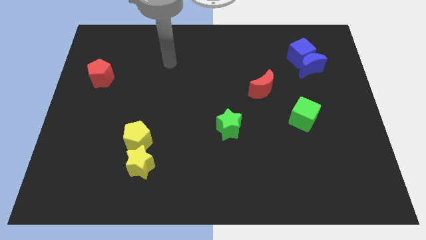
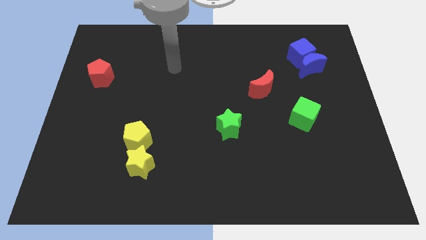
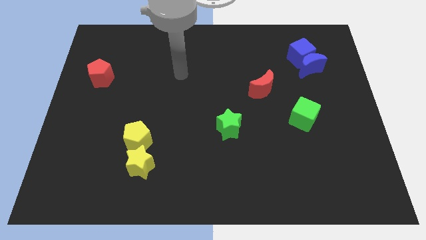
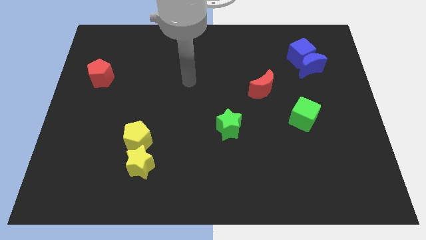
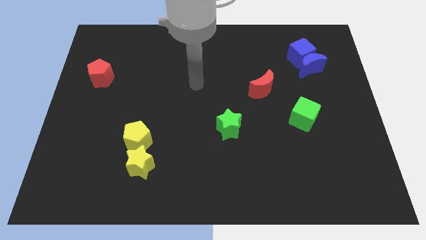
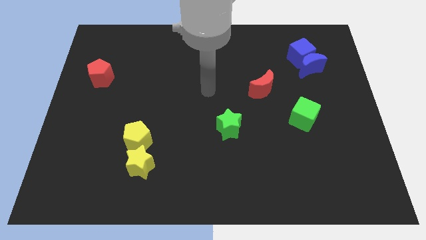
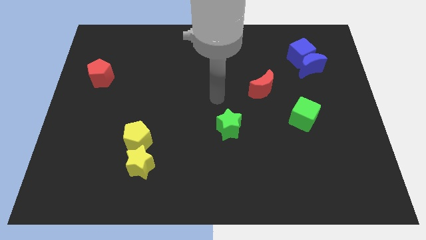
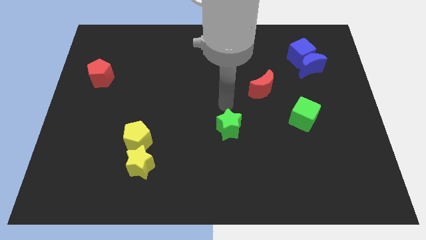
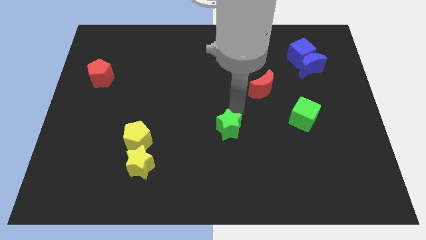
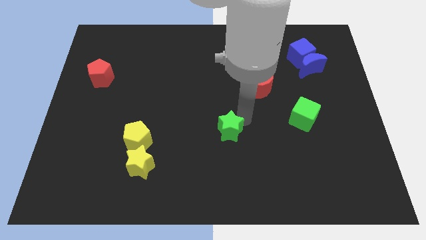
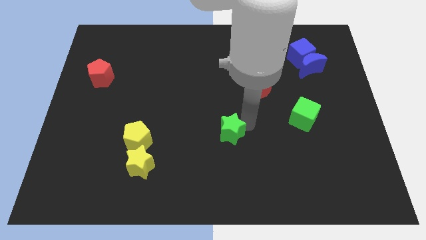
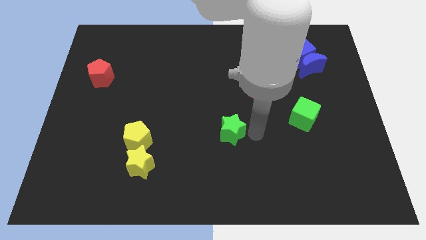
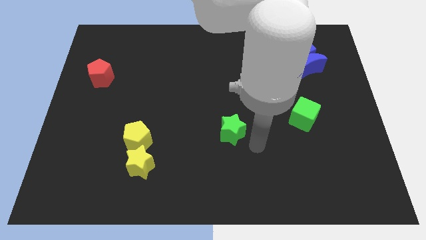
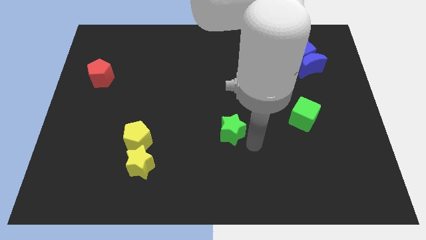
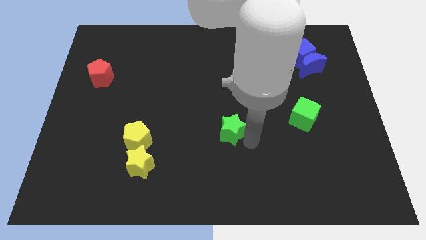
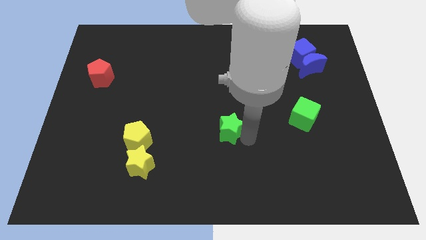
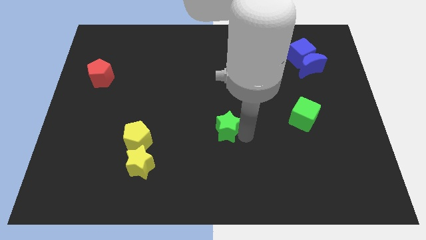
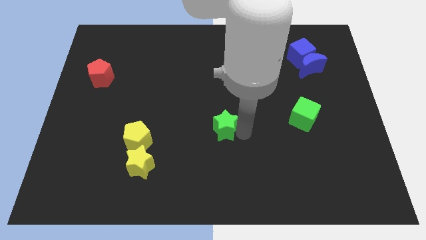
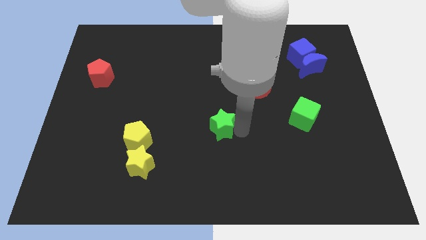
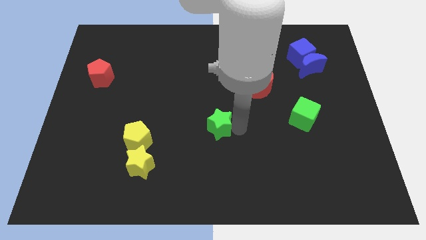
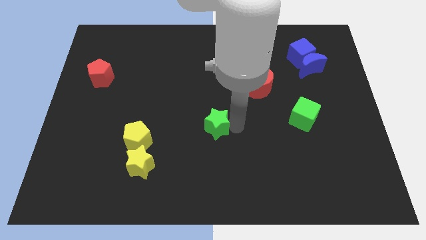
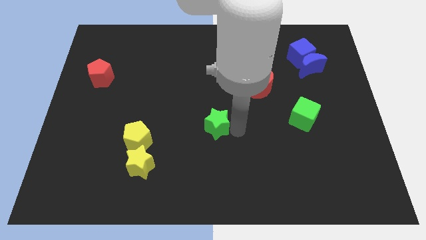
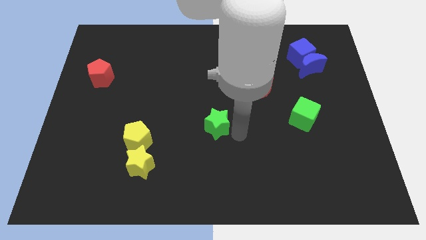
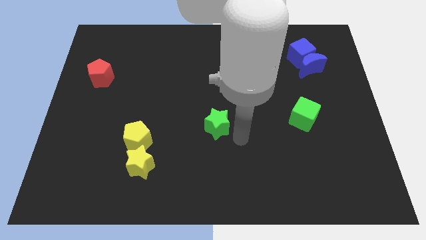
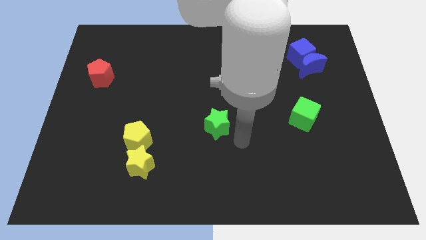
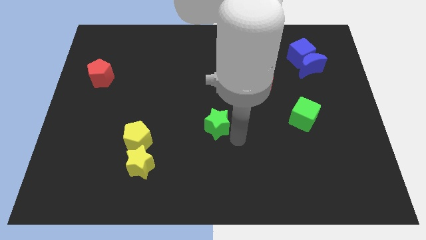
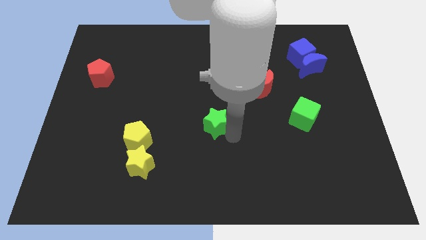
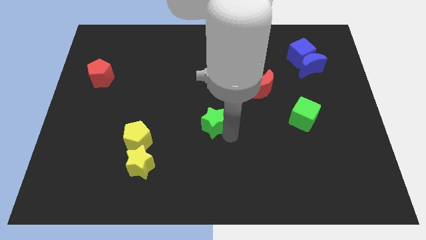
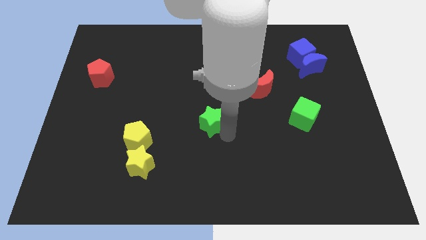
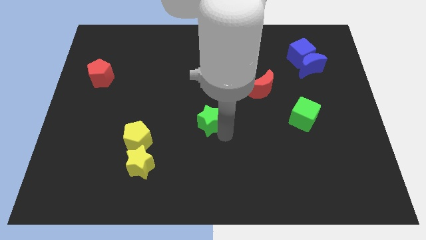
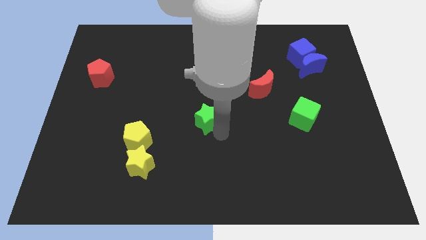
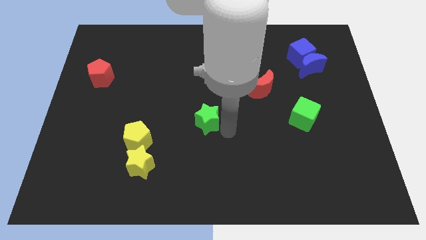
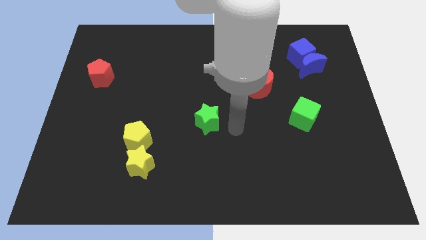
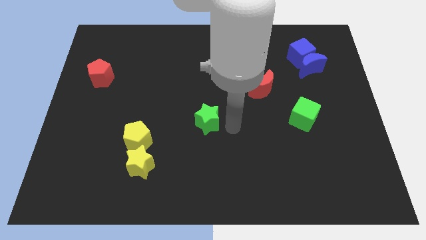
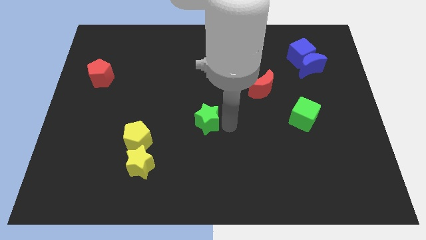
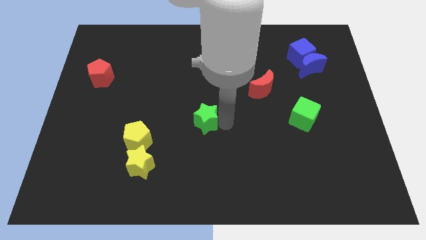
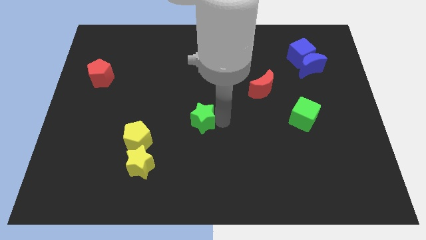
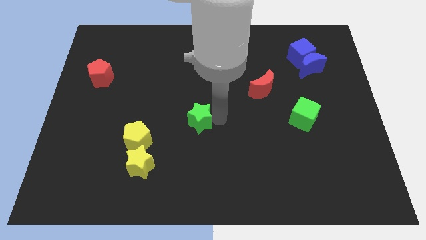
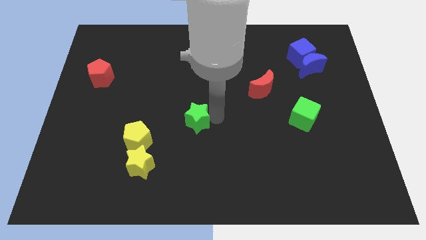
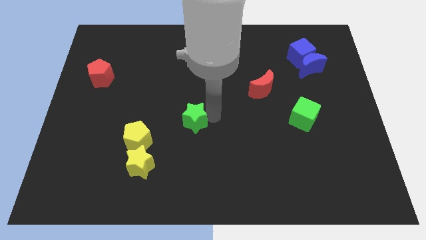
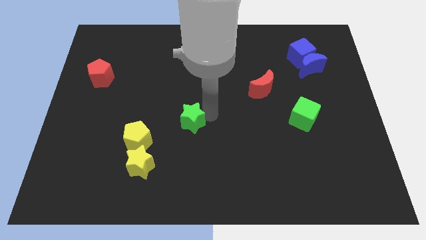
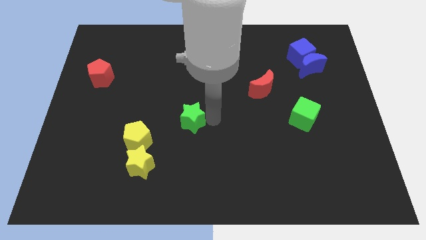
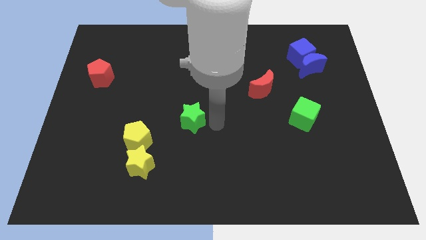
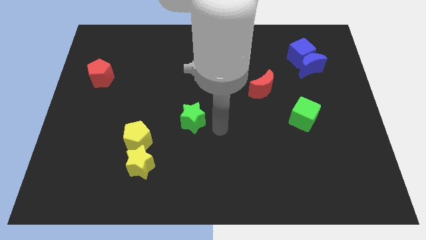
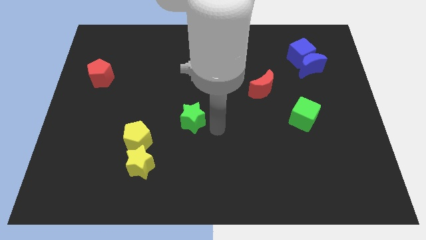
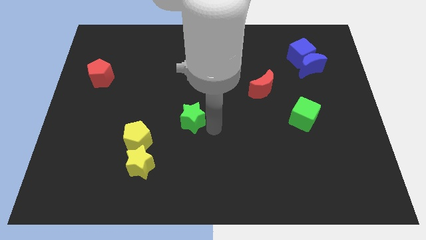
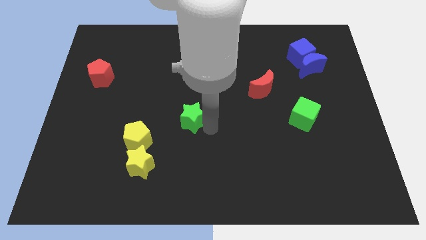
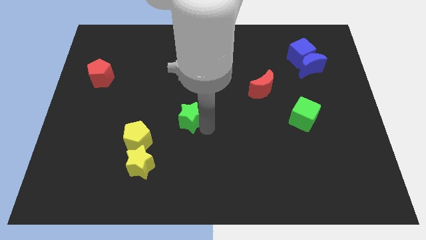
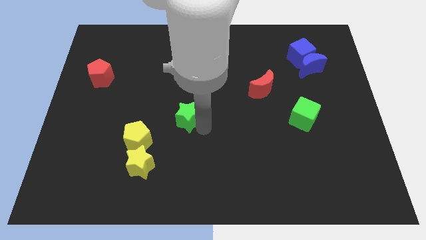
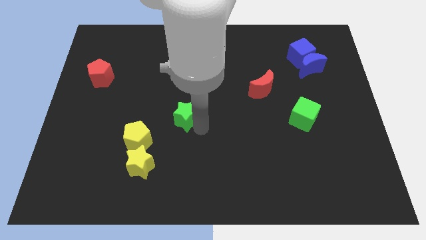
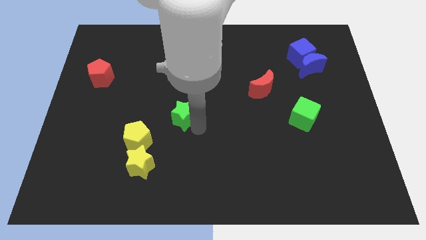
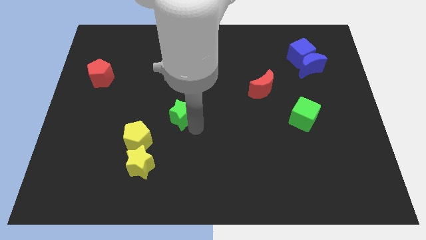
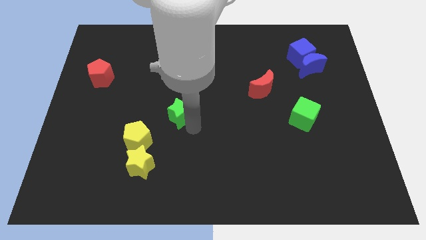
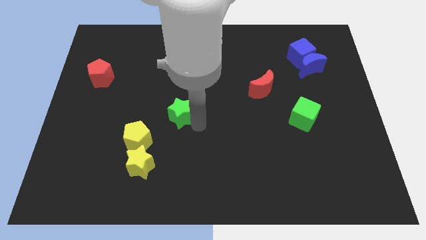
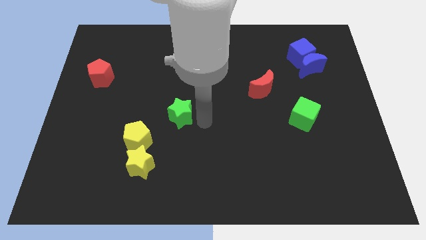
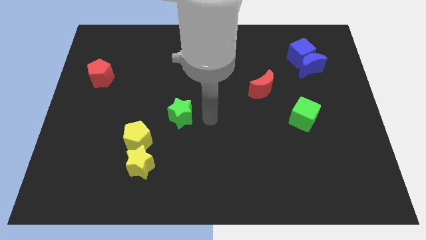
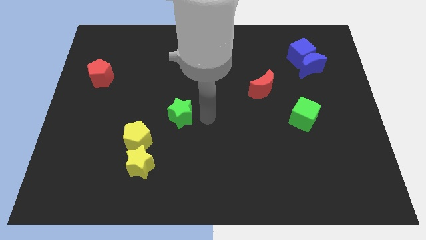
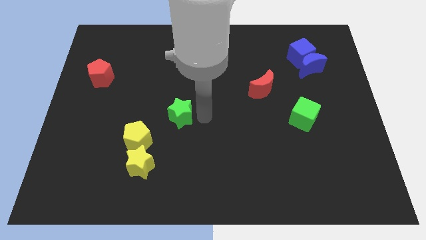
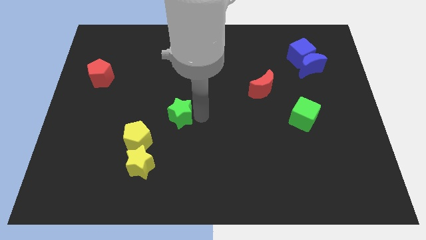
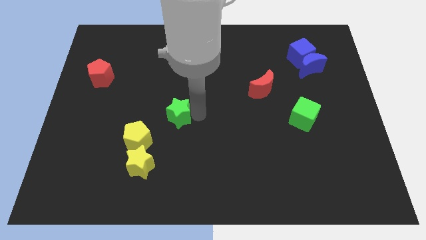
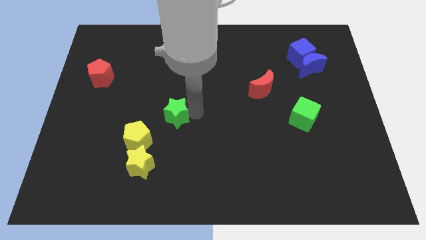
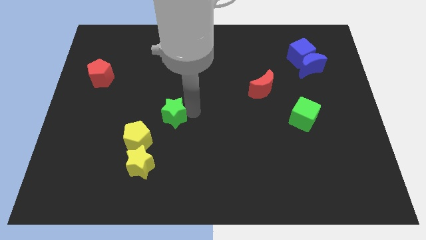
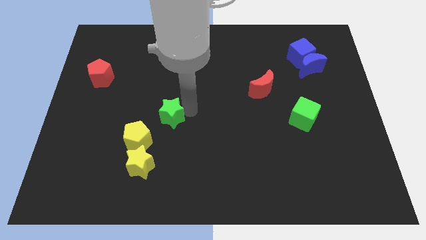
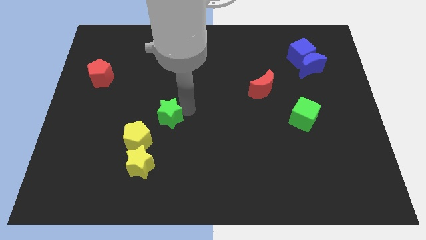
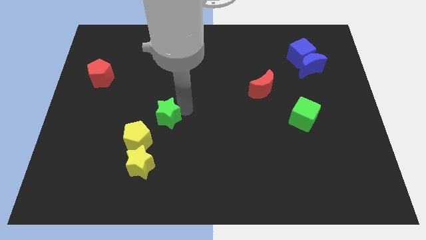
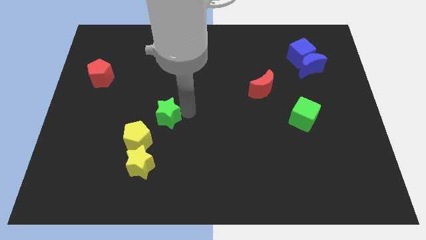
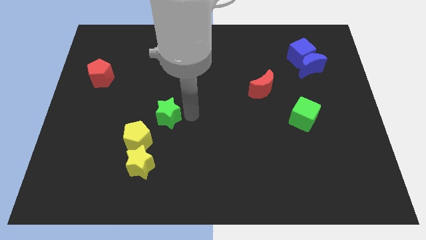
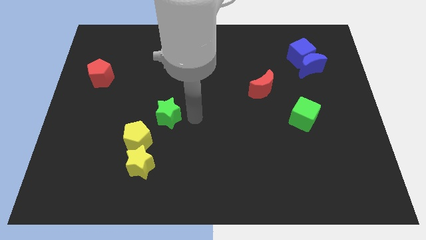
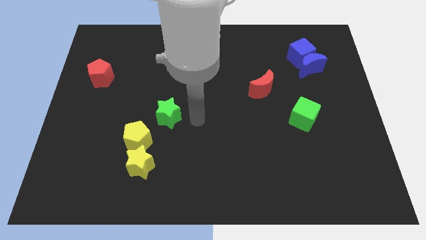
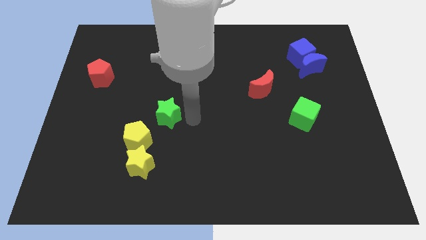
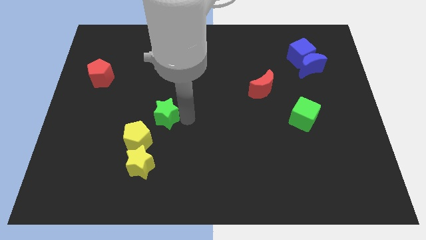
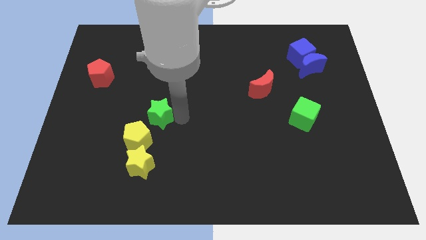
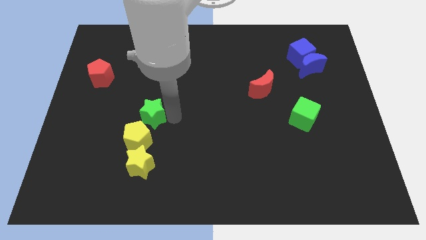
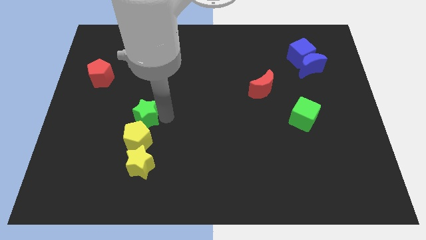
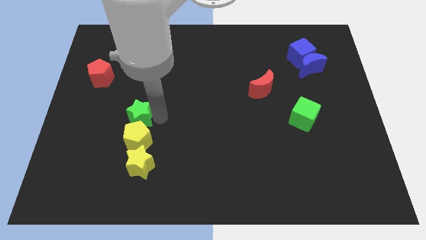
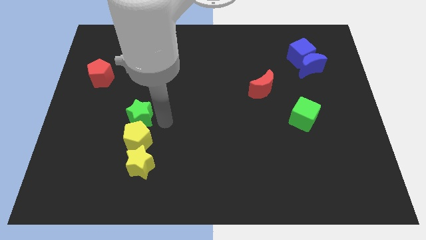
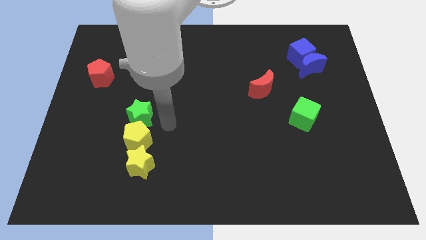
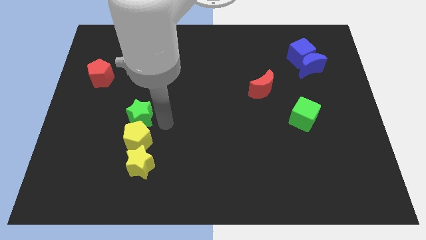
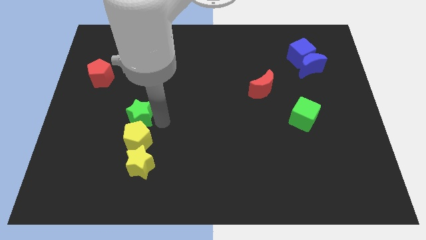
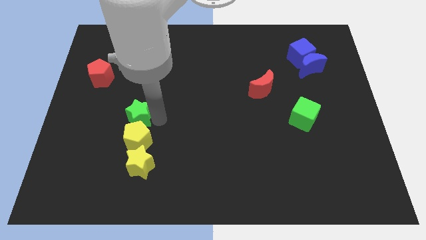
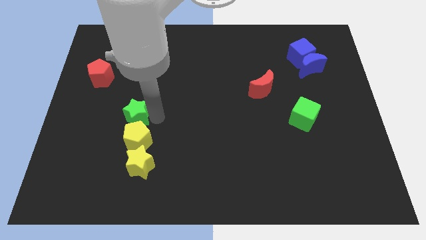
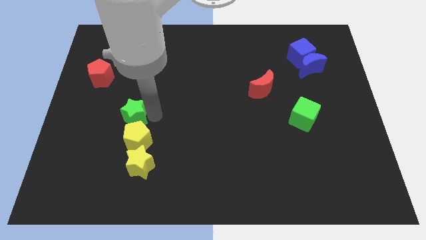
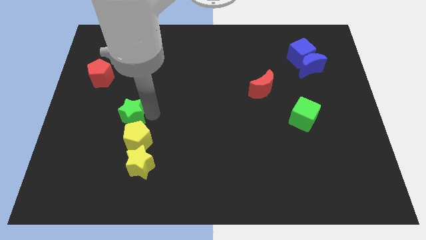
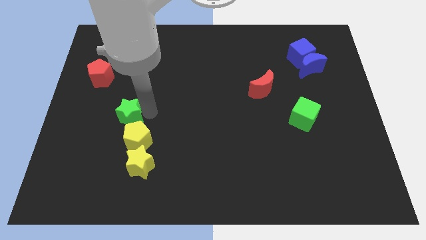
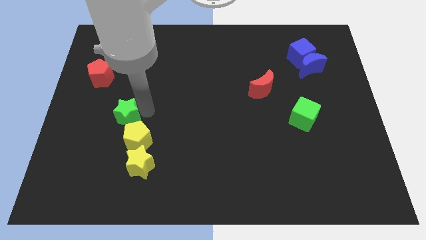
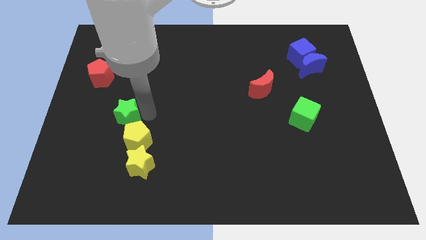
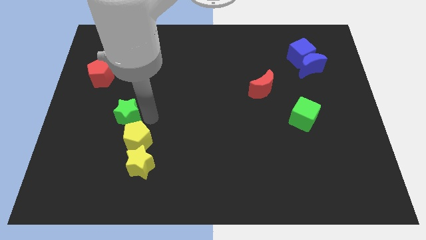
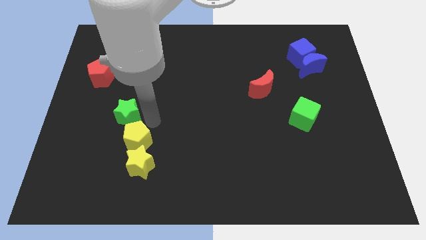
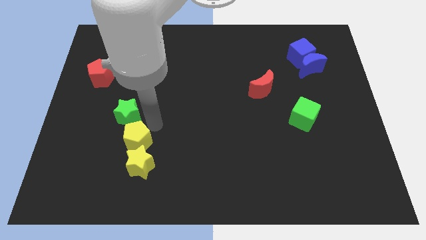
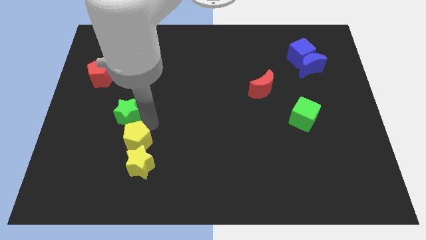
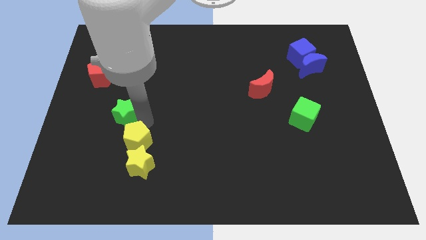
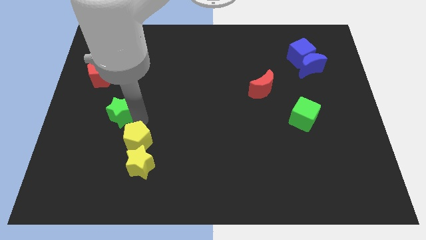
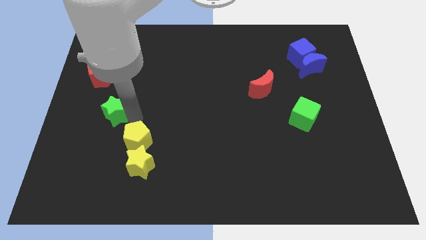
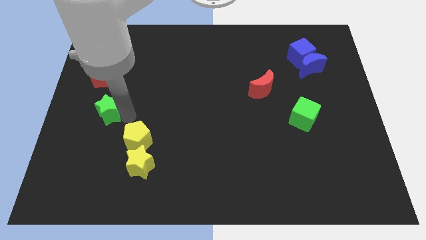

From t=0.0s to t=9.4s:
move the green star below the red pentagon
